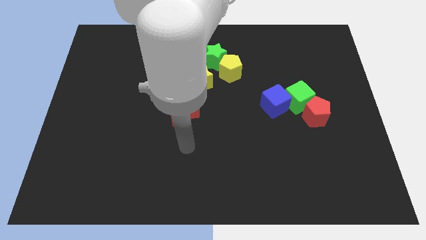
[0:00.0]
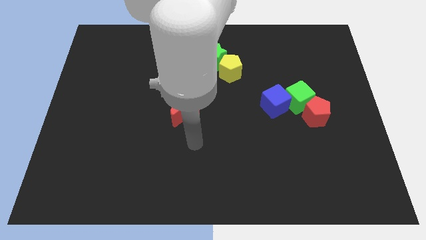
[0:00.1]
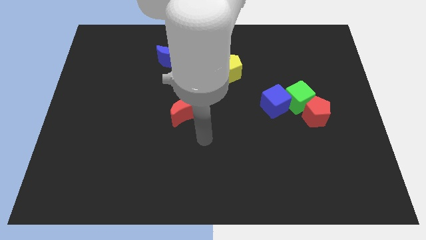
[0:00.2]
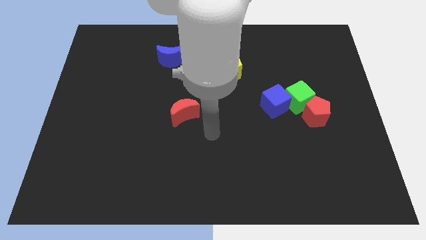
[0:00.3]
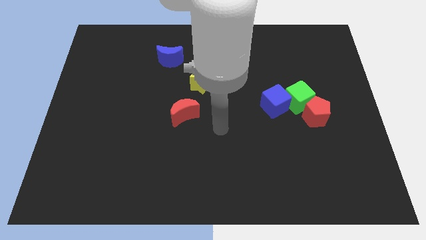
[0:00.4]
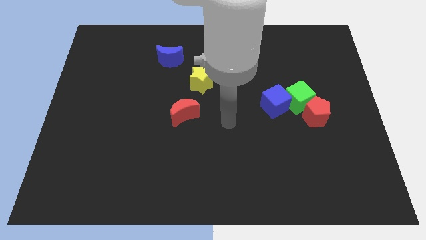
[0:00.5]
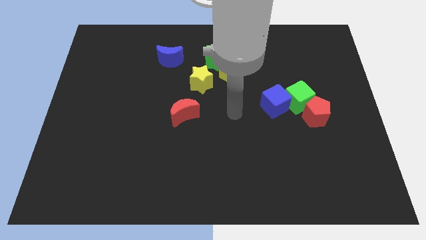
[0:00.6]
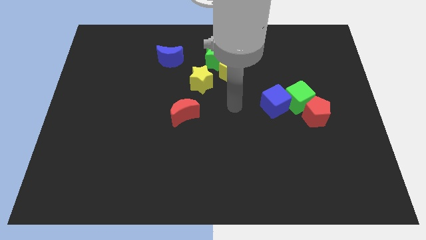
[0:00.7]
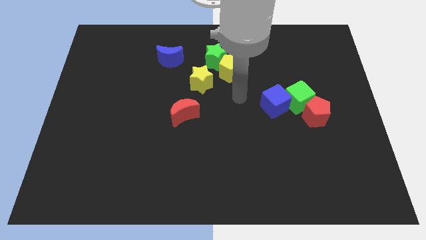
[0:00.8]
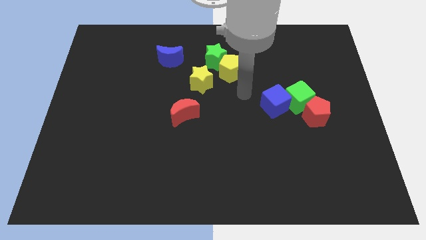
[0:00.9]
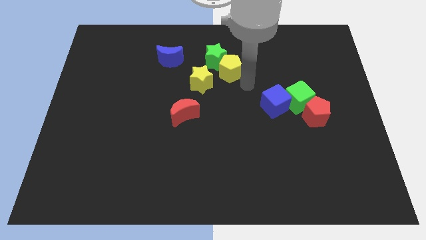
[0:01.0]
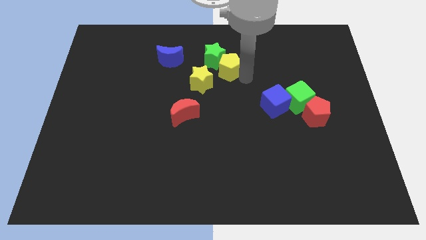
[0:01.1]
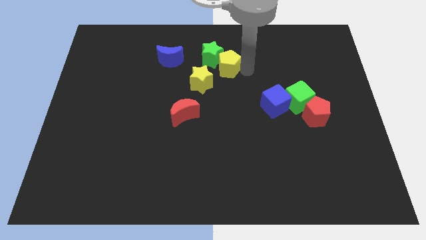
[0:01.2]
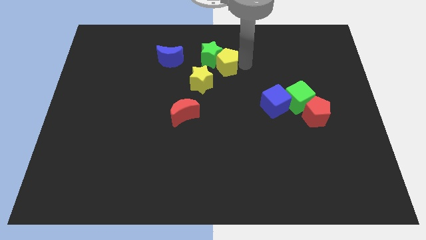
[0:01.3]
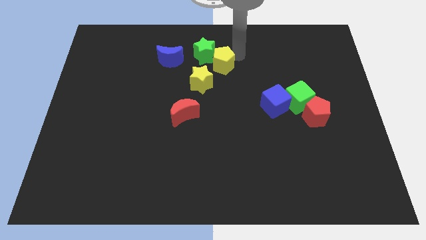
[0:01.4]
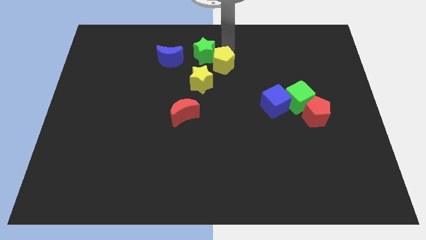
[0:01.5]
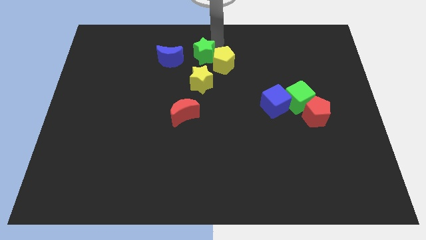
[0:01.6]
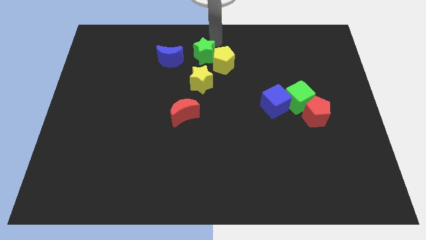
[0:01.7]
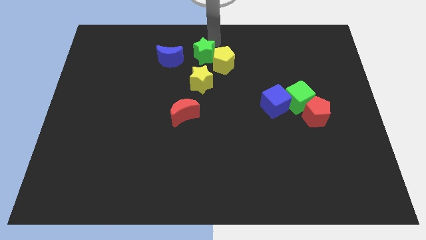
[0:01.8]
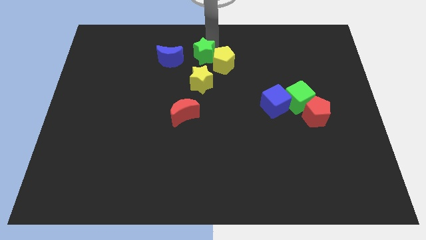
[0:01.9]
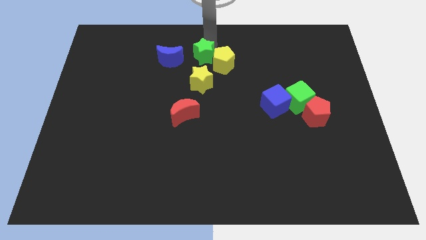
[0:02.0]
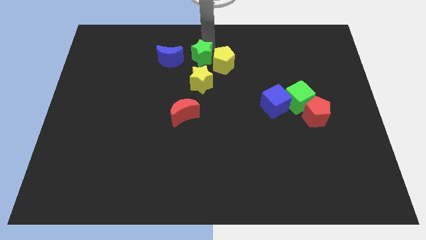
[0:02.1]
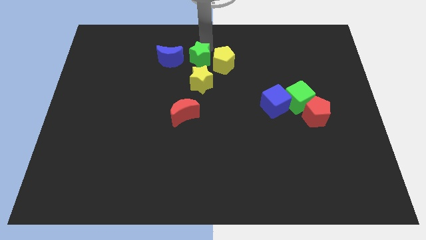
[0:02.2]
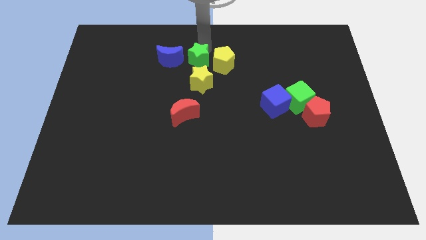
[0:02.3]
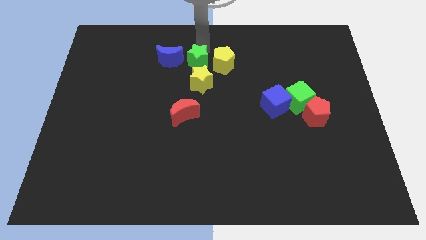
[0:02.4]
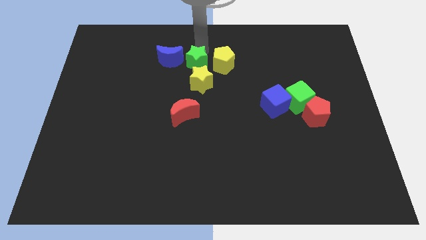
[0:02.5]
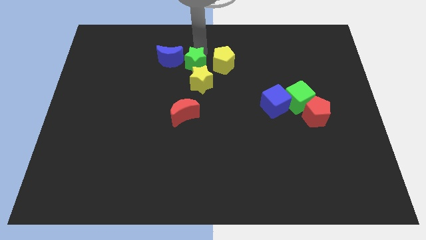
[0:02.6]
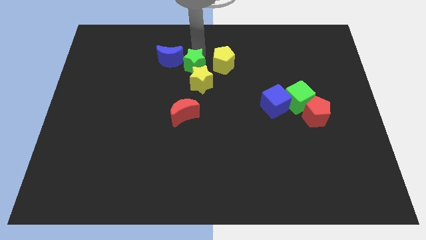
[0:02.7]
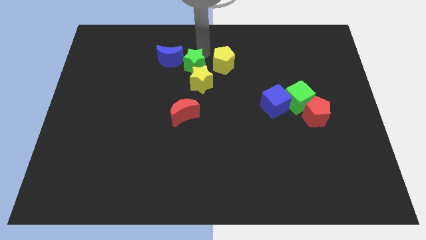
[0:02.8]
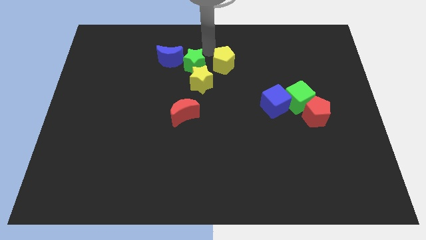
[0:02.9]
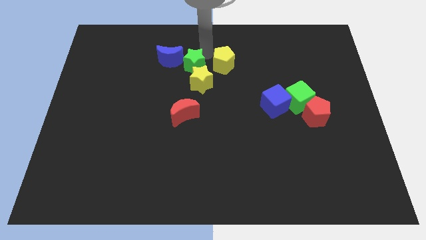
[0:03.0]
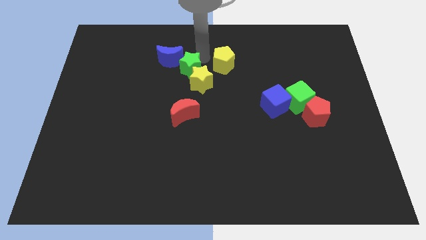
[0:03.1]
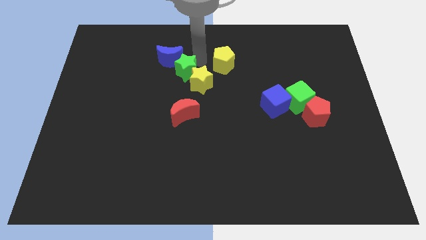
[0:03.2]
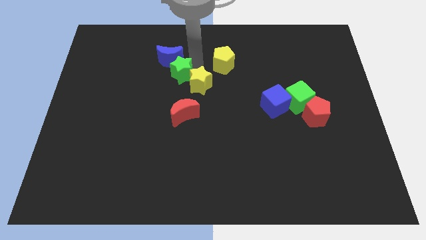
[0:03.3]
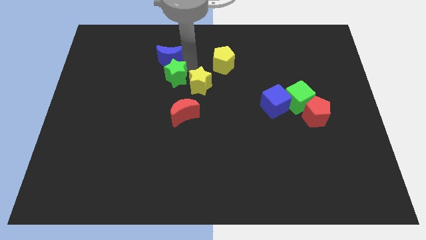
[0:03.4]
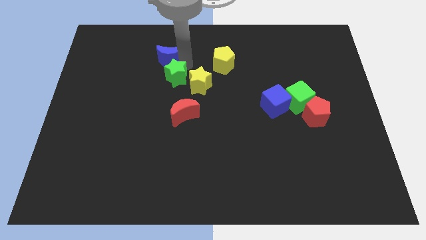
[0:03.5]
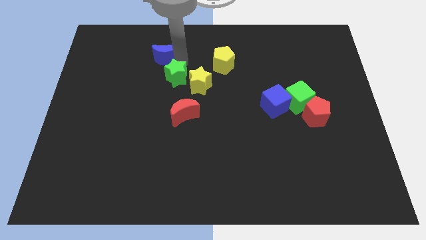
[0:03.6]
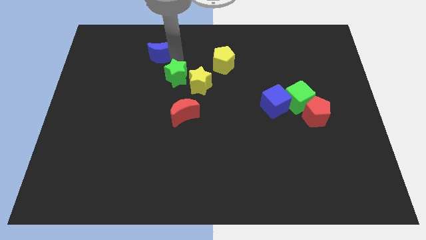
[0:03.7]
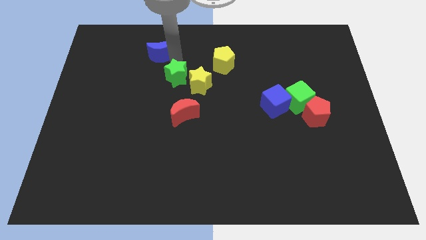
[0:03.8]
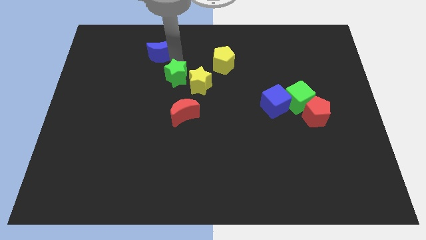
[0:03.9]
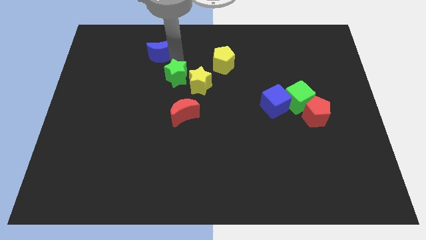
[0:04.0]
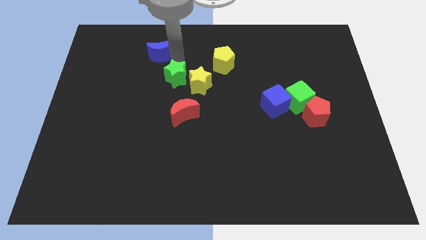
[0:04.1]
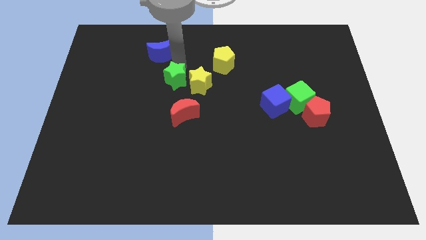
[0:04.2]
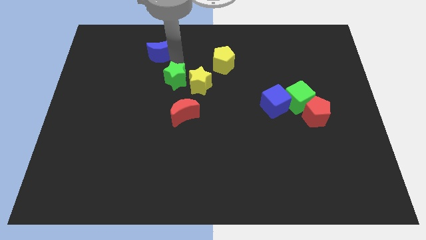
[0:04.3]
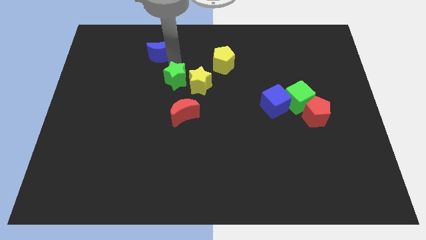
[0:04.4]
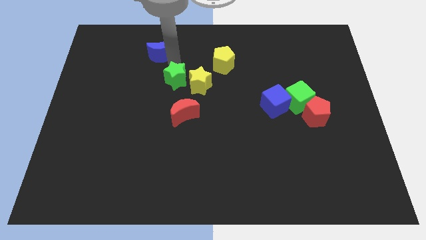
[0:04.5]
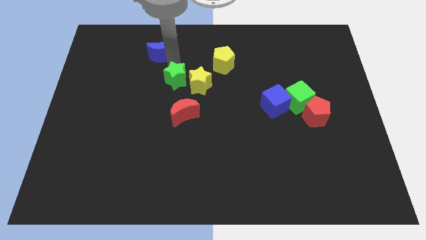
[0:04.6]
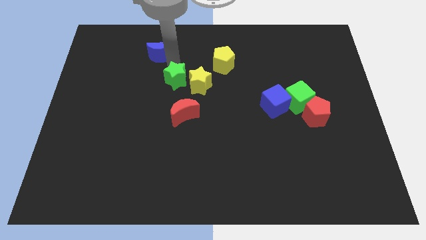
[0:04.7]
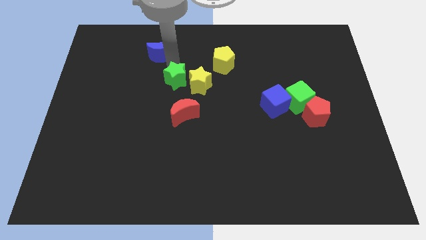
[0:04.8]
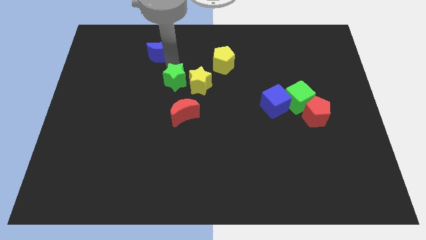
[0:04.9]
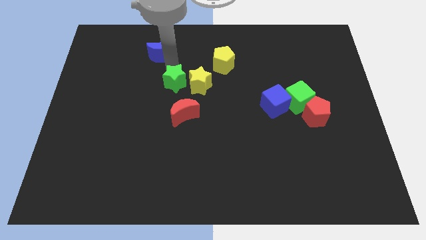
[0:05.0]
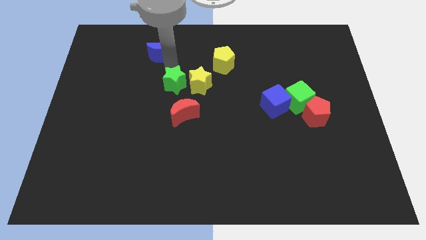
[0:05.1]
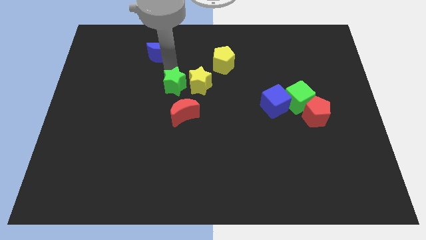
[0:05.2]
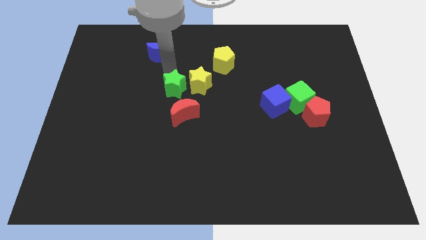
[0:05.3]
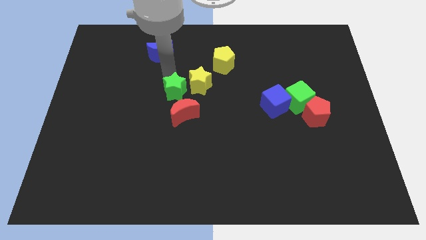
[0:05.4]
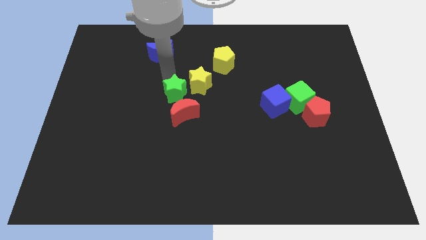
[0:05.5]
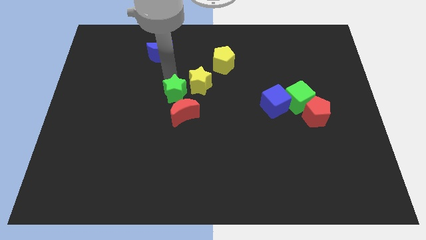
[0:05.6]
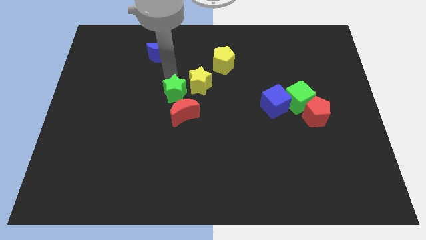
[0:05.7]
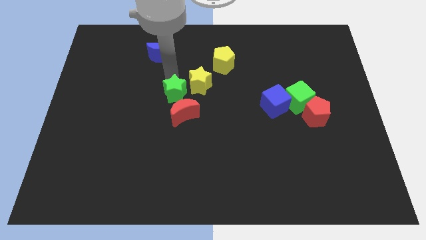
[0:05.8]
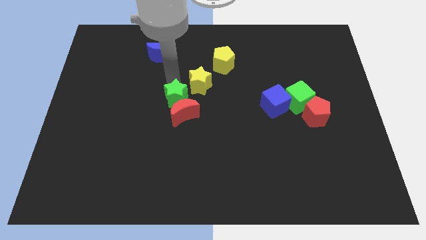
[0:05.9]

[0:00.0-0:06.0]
push the green star next to the red moon

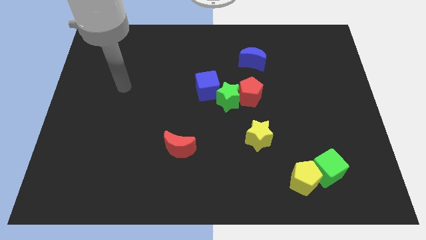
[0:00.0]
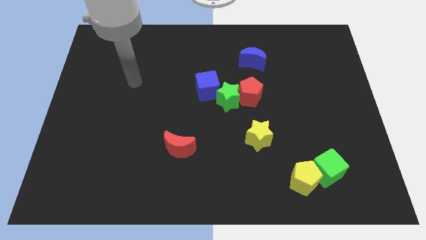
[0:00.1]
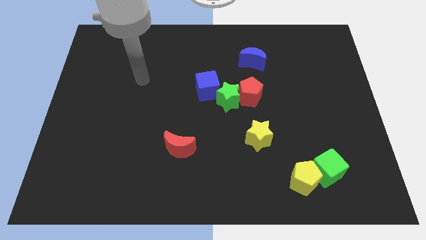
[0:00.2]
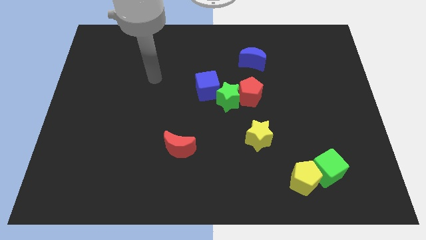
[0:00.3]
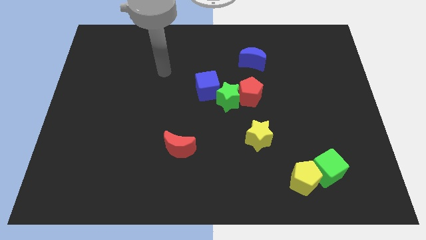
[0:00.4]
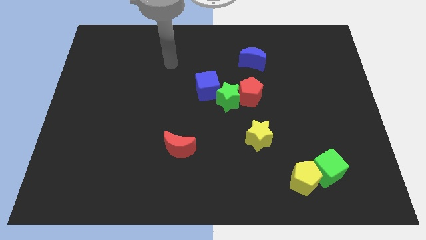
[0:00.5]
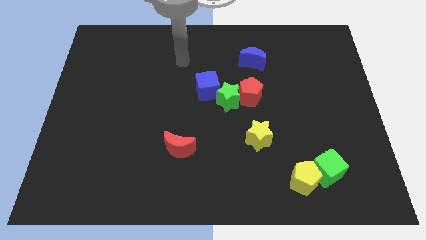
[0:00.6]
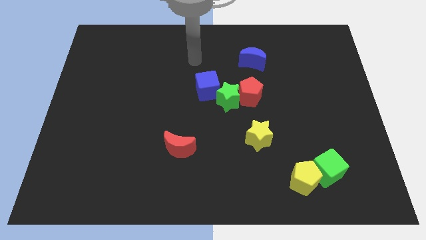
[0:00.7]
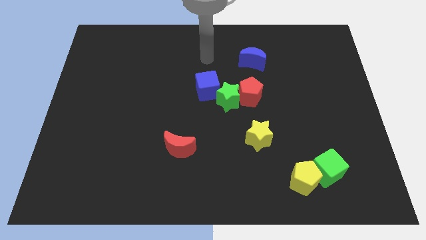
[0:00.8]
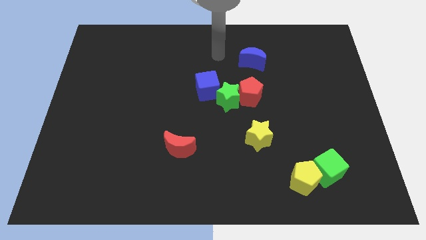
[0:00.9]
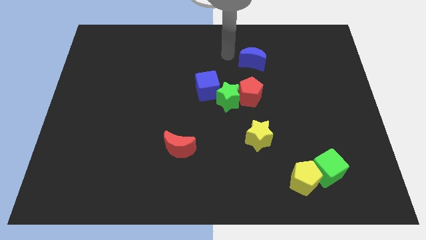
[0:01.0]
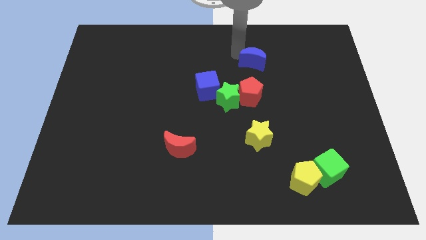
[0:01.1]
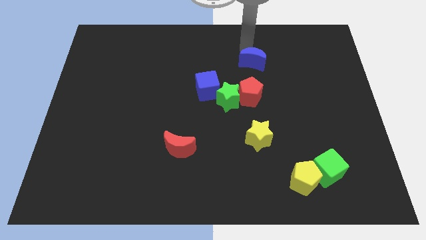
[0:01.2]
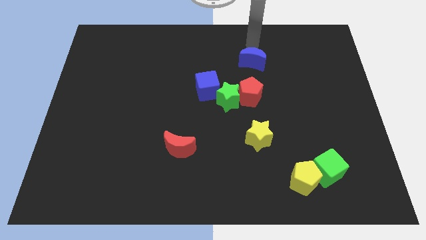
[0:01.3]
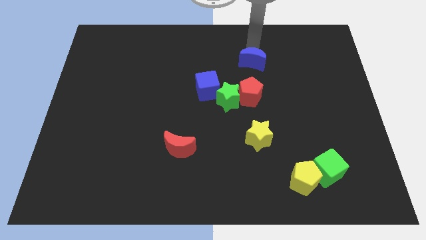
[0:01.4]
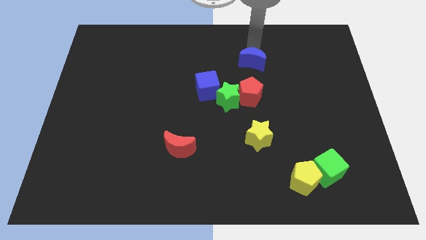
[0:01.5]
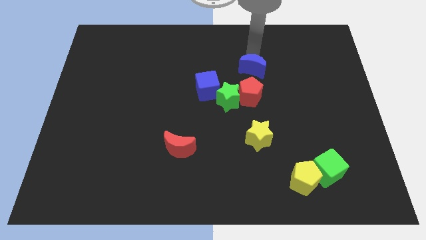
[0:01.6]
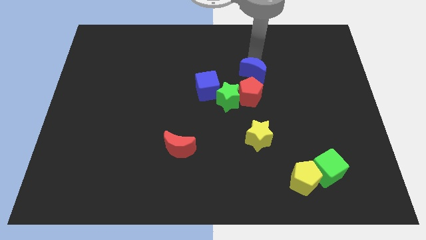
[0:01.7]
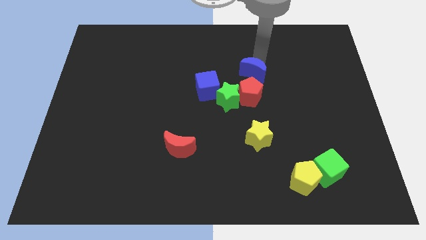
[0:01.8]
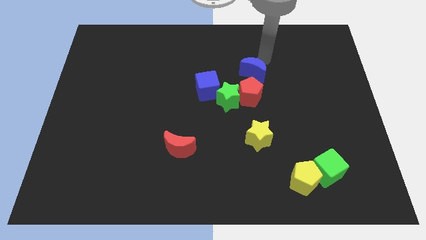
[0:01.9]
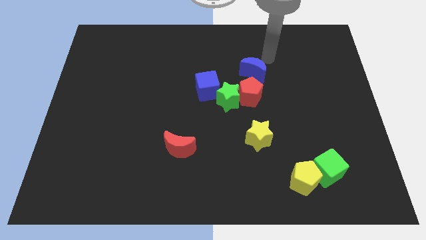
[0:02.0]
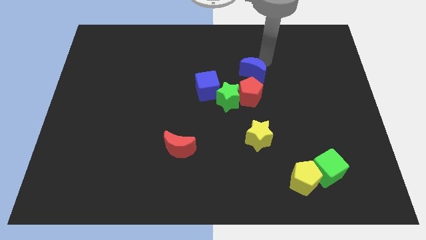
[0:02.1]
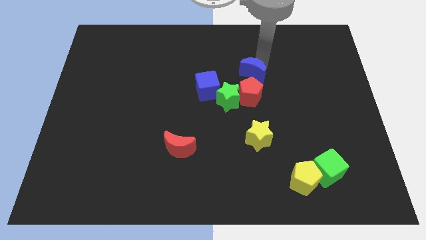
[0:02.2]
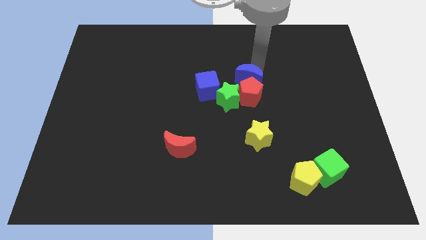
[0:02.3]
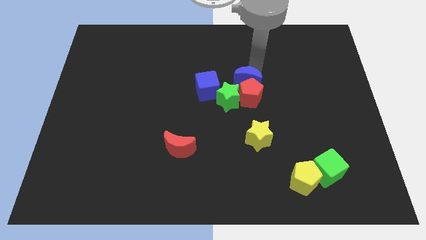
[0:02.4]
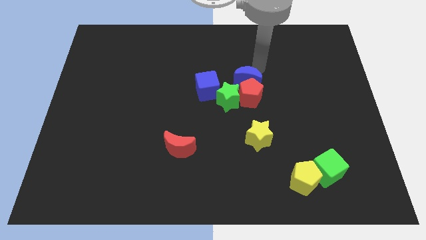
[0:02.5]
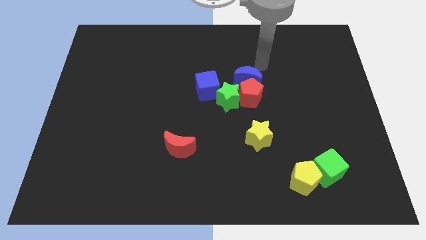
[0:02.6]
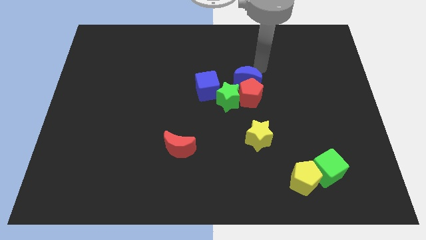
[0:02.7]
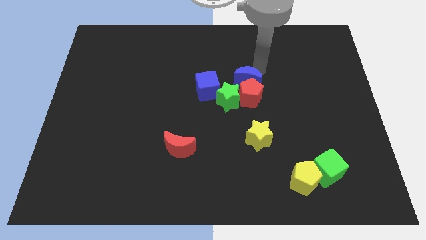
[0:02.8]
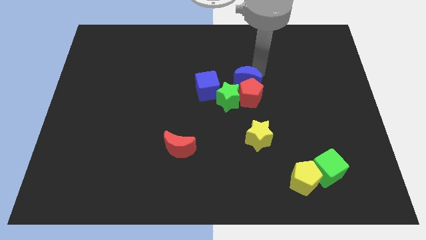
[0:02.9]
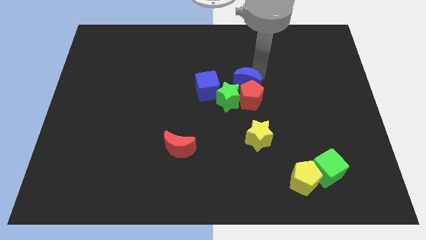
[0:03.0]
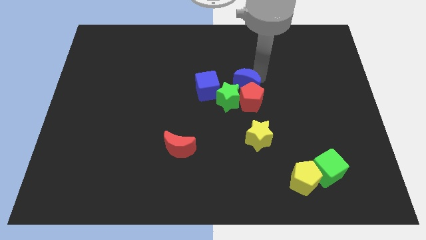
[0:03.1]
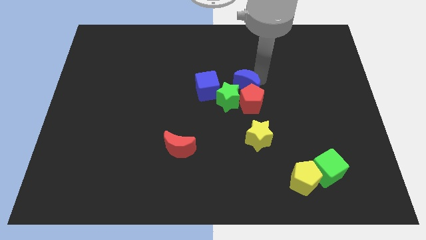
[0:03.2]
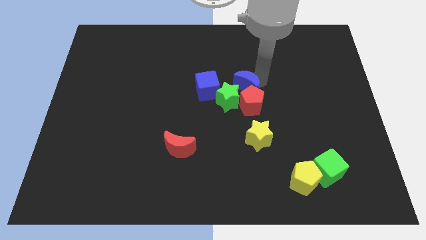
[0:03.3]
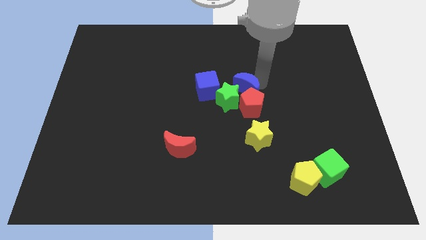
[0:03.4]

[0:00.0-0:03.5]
put the blue moon to the green star
